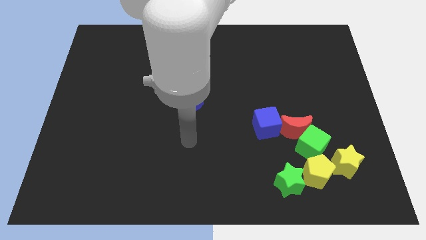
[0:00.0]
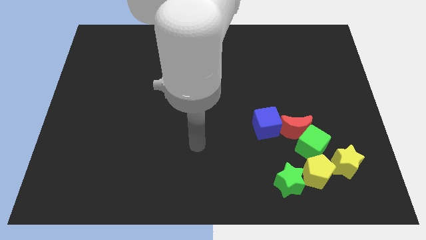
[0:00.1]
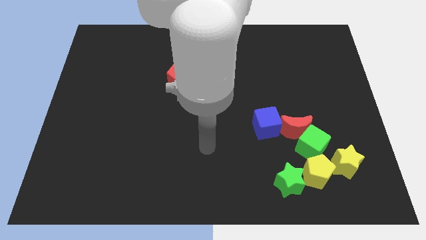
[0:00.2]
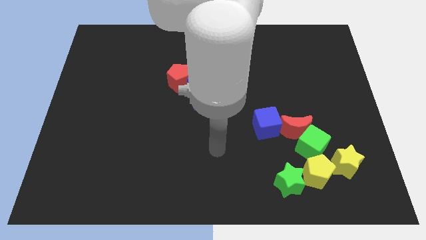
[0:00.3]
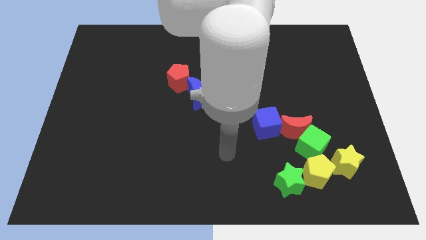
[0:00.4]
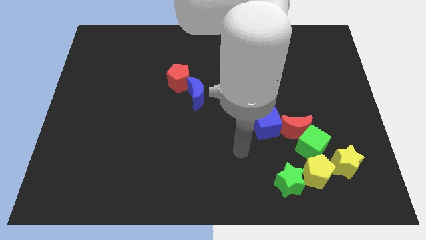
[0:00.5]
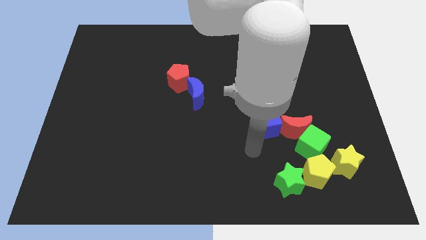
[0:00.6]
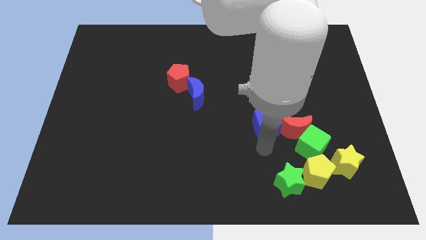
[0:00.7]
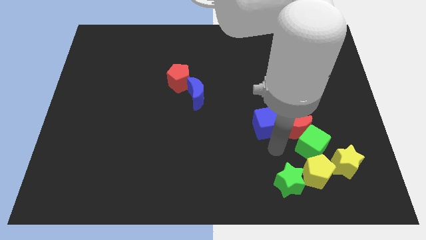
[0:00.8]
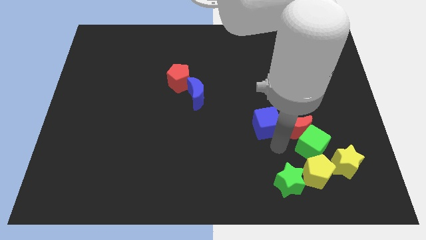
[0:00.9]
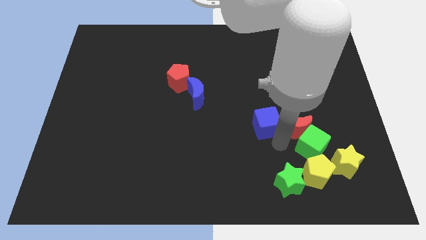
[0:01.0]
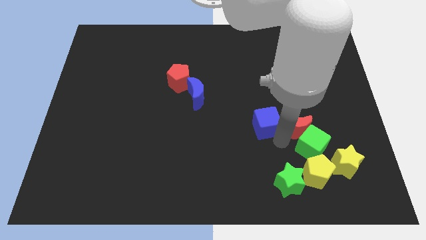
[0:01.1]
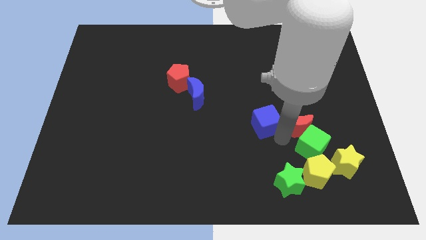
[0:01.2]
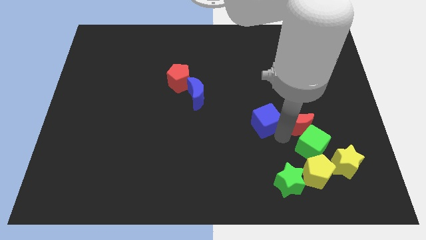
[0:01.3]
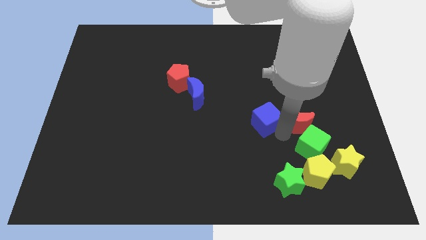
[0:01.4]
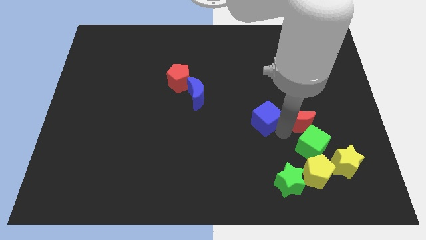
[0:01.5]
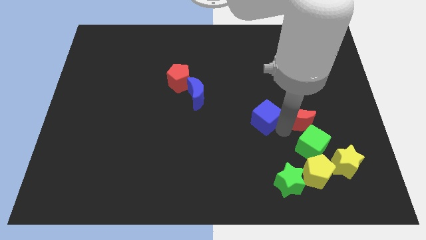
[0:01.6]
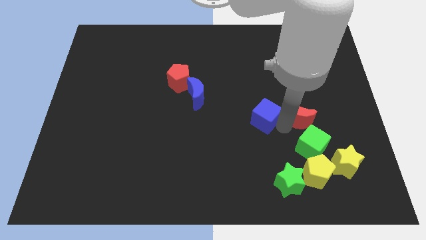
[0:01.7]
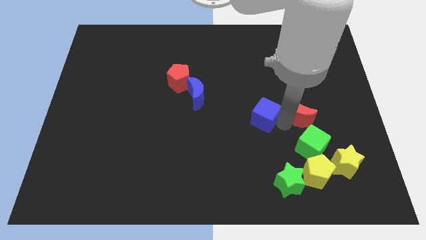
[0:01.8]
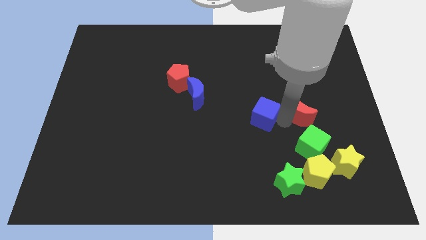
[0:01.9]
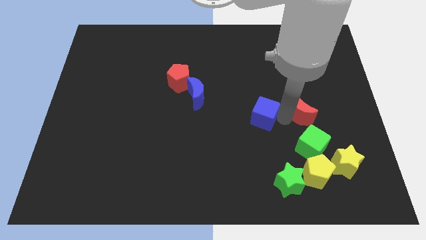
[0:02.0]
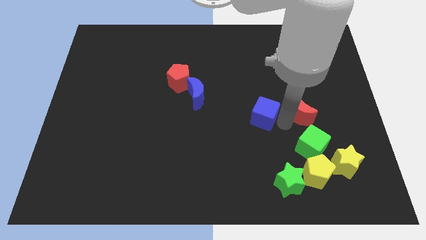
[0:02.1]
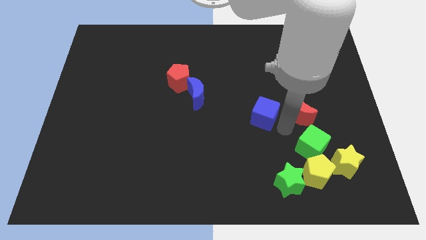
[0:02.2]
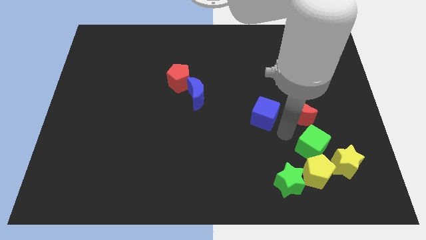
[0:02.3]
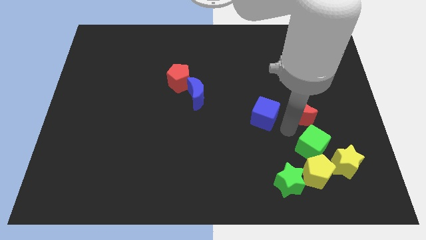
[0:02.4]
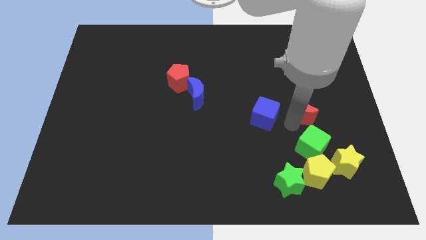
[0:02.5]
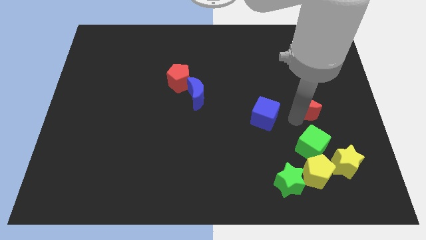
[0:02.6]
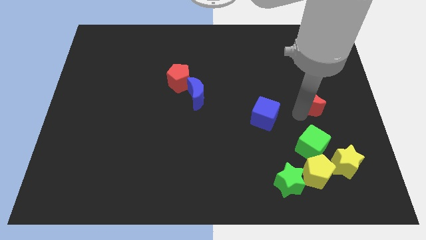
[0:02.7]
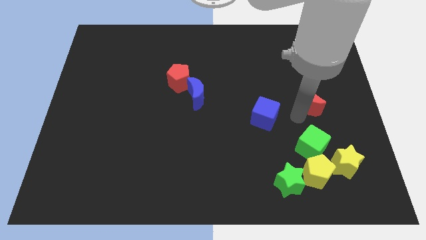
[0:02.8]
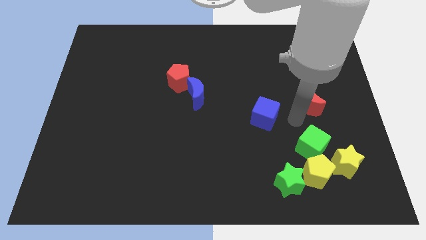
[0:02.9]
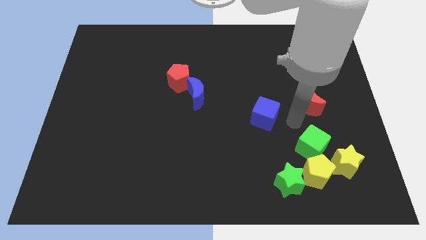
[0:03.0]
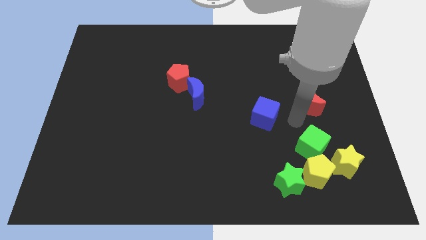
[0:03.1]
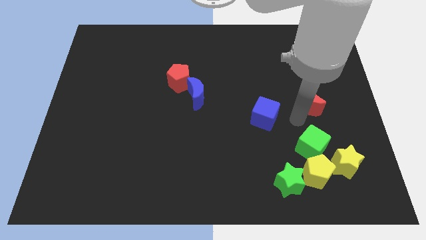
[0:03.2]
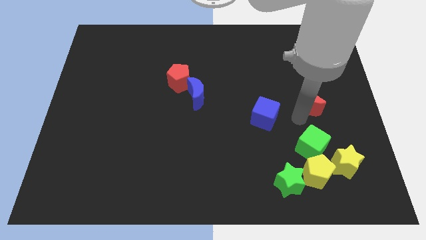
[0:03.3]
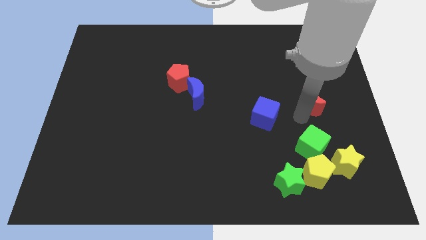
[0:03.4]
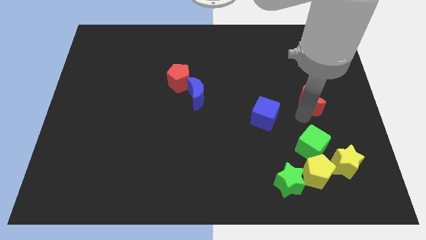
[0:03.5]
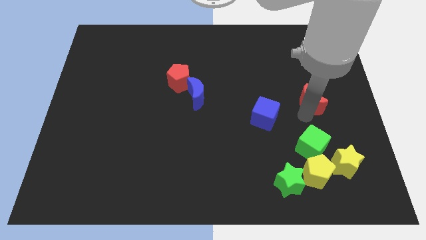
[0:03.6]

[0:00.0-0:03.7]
pull the red moon apart from the green cube and blue cube

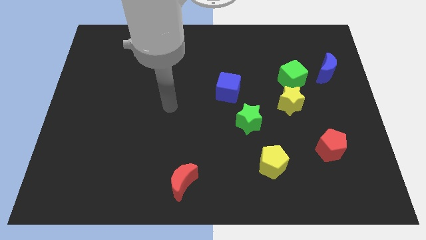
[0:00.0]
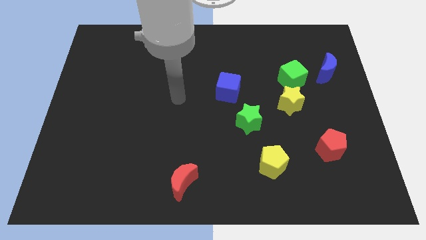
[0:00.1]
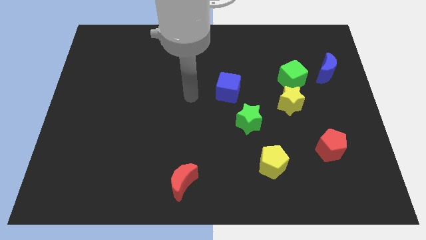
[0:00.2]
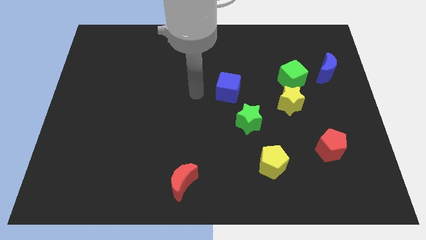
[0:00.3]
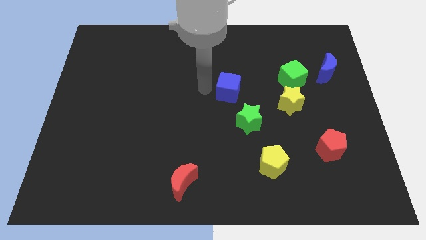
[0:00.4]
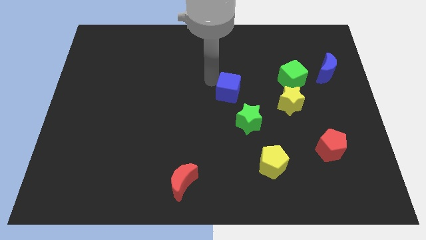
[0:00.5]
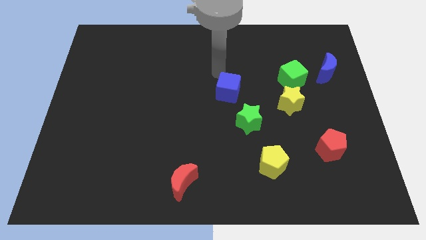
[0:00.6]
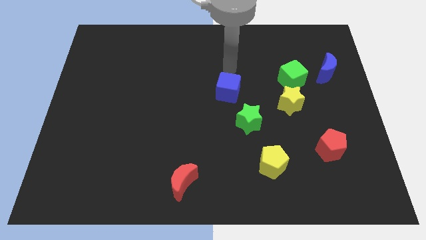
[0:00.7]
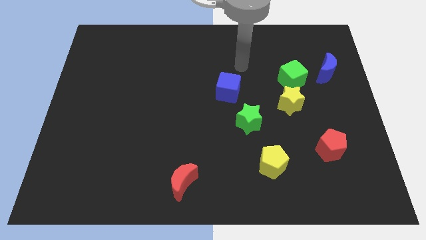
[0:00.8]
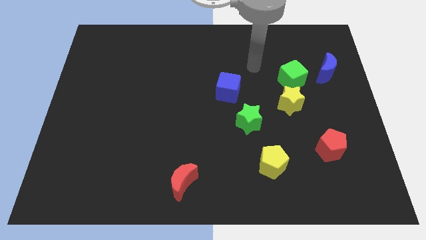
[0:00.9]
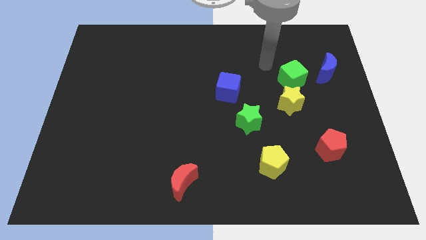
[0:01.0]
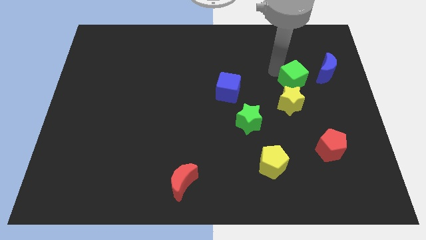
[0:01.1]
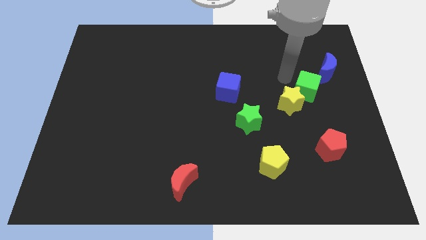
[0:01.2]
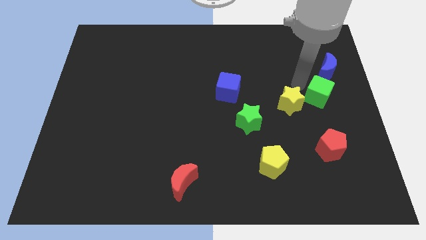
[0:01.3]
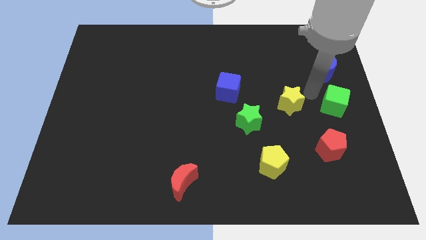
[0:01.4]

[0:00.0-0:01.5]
pull the yellow star apart from the green cube

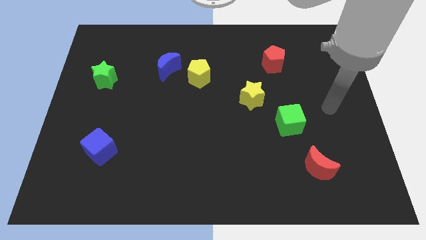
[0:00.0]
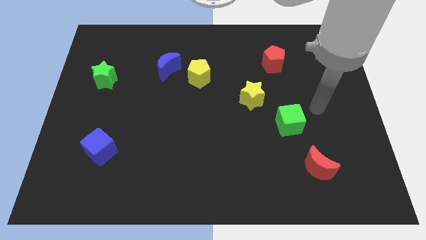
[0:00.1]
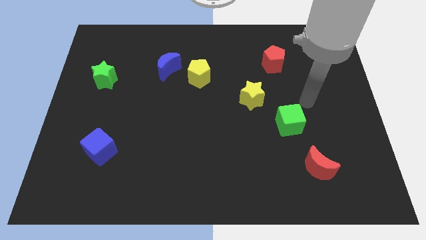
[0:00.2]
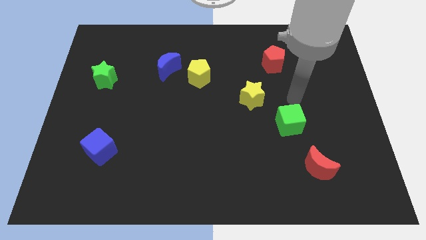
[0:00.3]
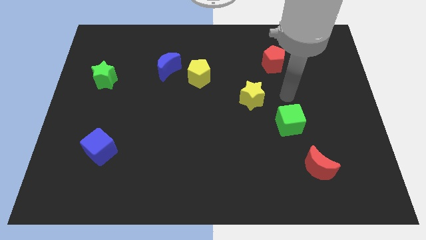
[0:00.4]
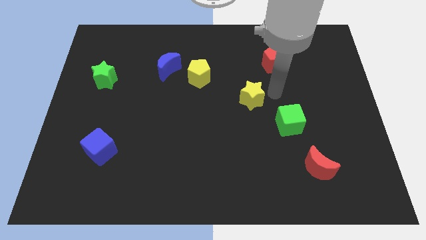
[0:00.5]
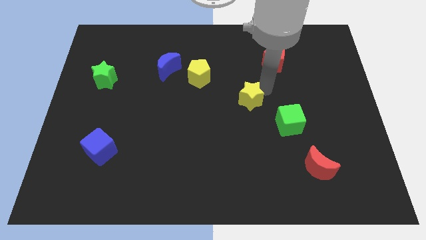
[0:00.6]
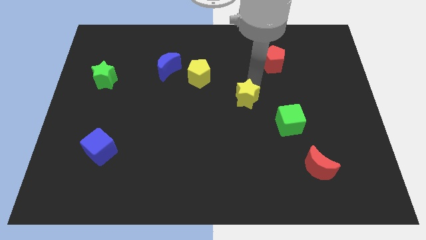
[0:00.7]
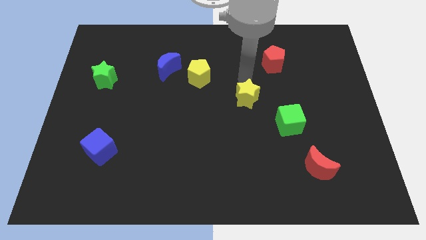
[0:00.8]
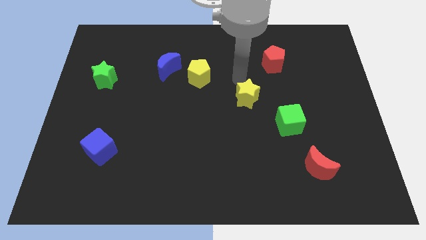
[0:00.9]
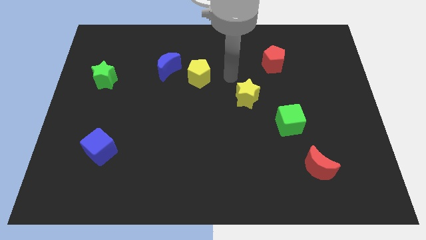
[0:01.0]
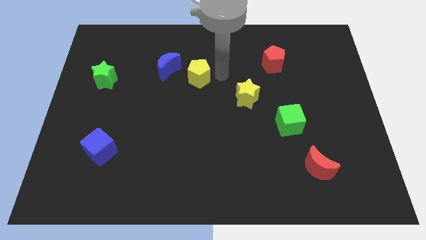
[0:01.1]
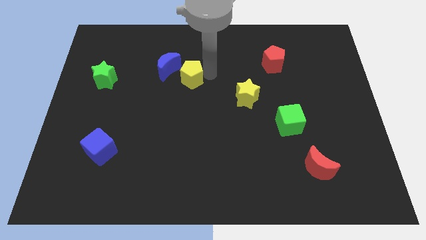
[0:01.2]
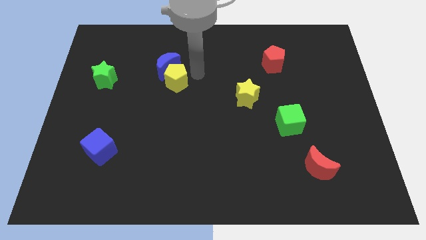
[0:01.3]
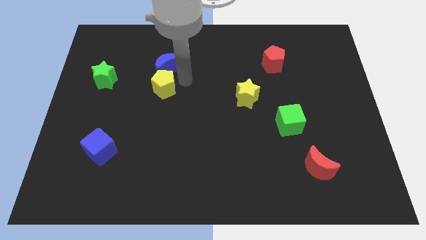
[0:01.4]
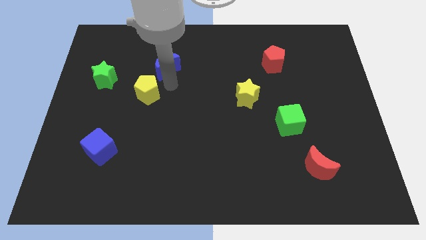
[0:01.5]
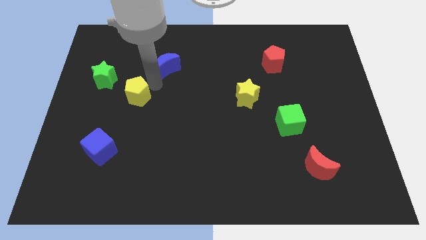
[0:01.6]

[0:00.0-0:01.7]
move the blue moon away from the yellow pentagon

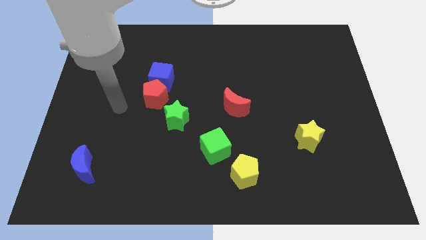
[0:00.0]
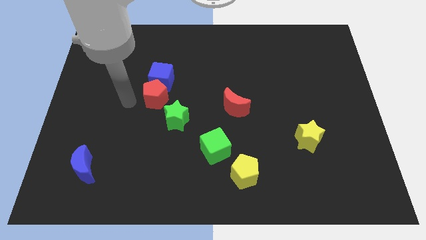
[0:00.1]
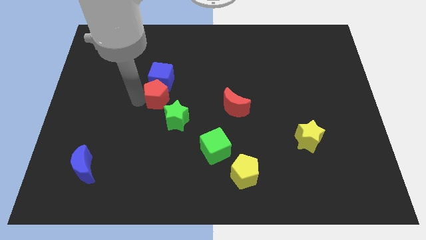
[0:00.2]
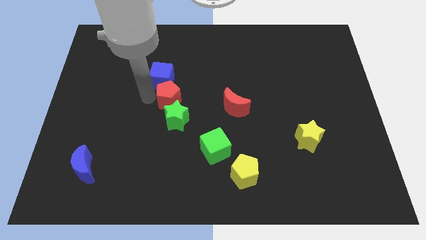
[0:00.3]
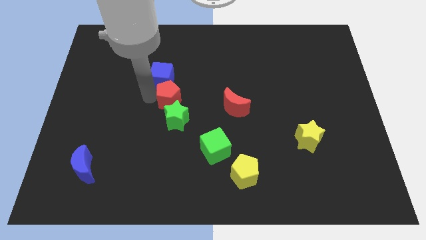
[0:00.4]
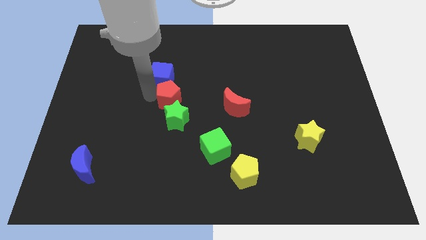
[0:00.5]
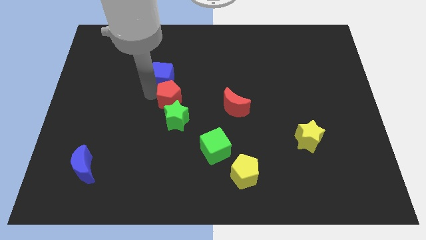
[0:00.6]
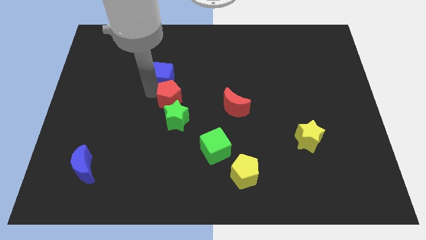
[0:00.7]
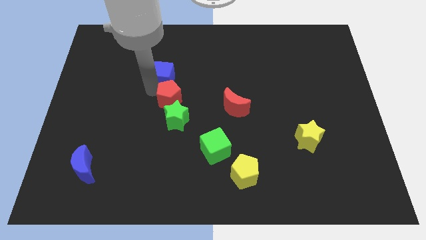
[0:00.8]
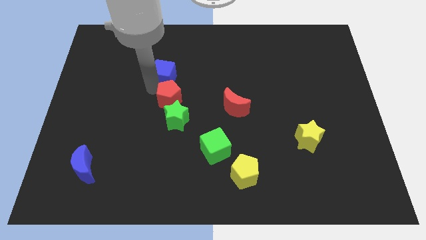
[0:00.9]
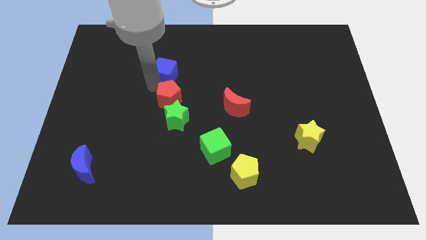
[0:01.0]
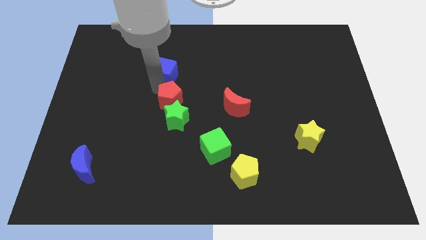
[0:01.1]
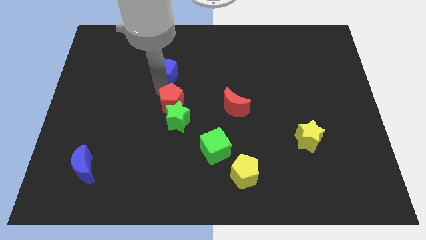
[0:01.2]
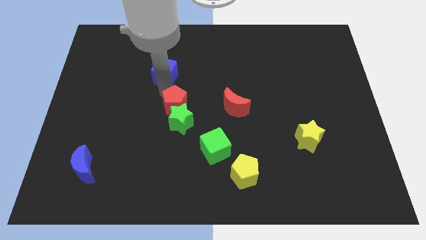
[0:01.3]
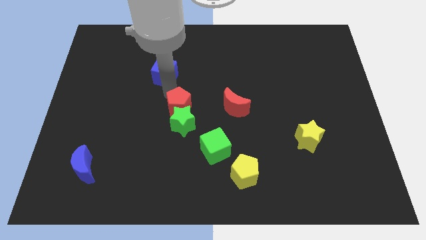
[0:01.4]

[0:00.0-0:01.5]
separate the blue cube from the red pentagon

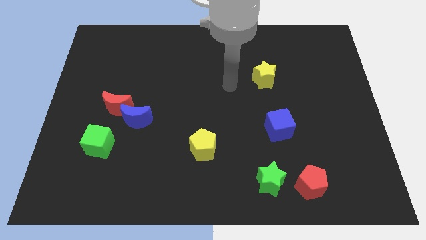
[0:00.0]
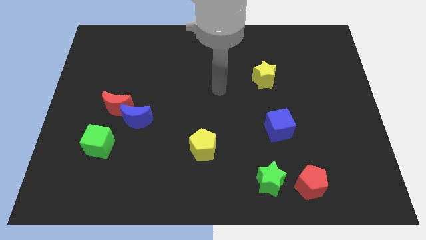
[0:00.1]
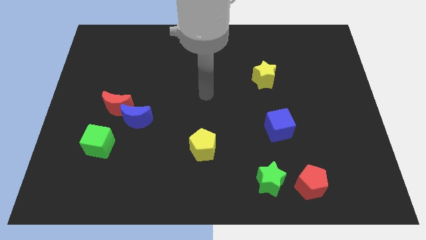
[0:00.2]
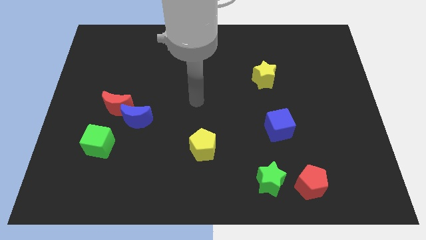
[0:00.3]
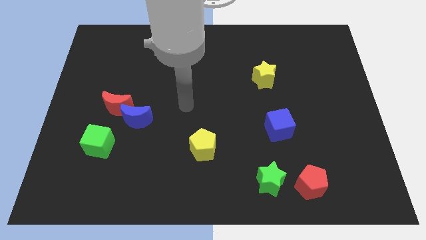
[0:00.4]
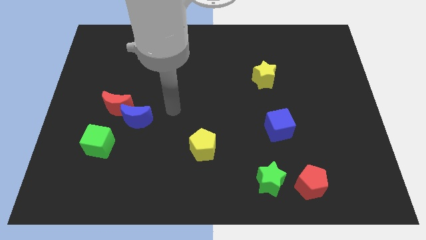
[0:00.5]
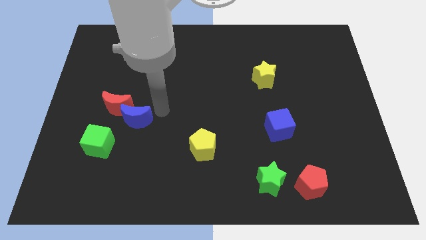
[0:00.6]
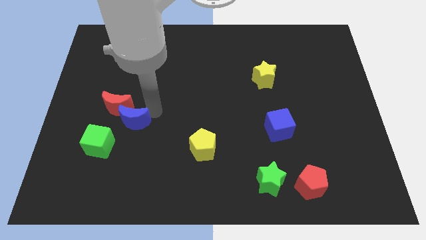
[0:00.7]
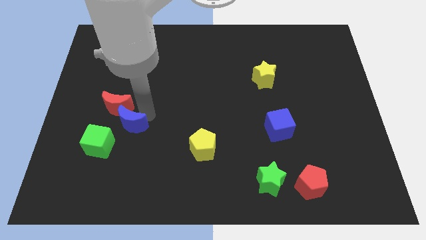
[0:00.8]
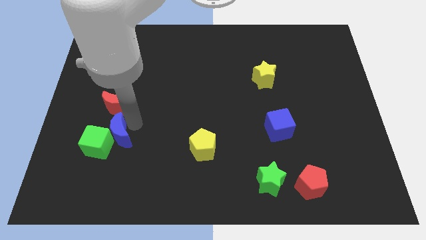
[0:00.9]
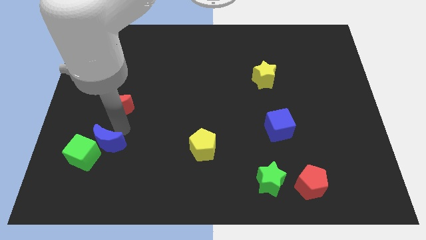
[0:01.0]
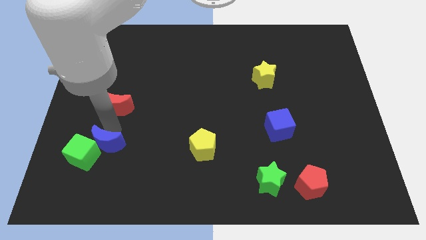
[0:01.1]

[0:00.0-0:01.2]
move the red moon away from the blue moon
